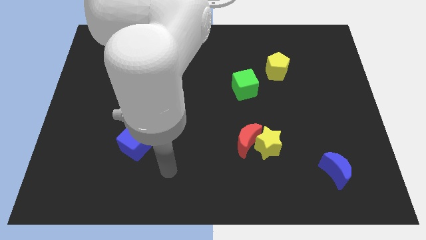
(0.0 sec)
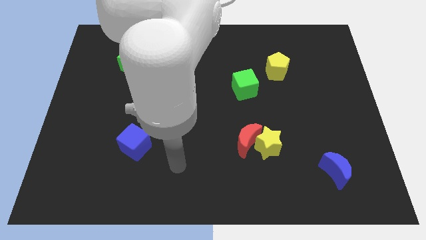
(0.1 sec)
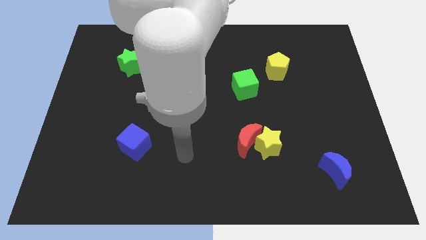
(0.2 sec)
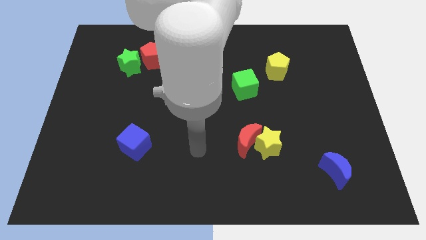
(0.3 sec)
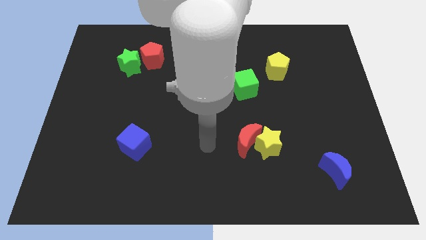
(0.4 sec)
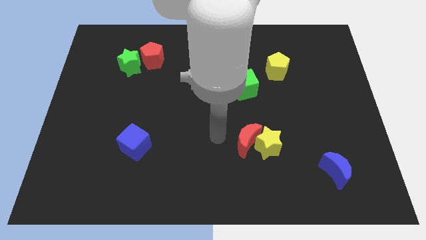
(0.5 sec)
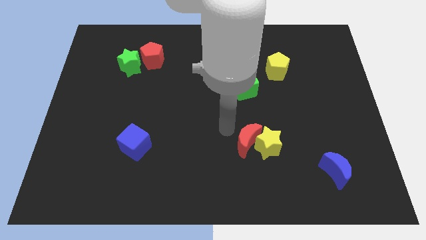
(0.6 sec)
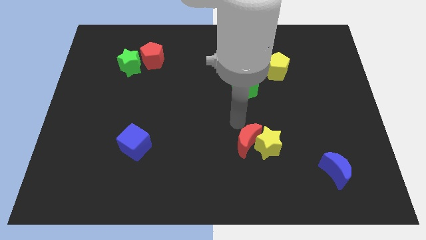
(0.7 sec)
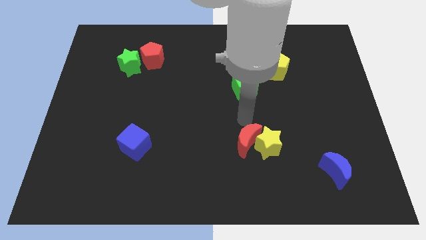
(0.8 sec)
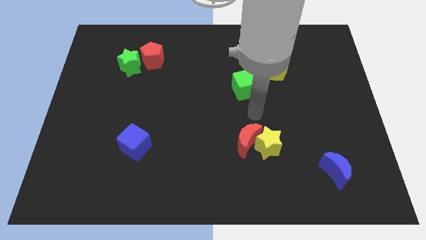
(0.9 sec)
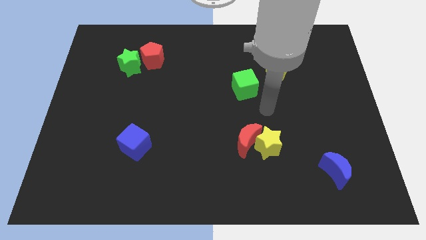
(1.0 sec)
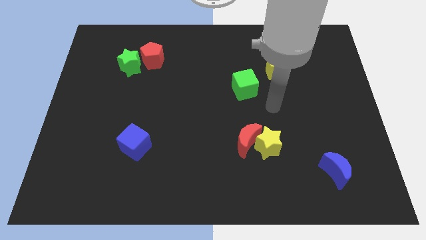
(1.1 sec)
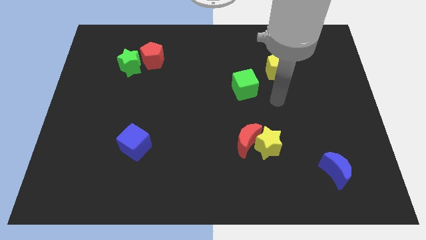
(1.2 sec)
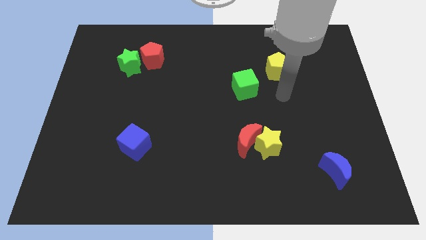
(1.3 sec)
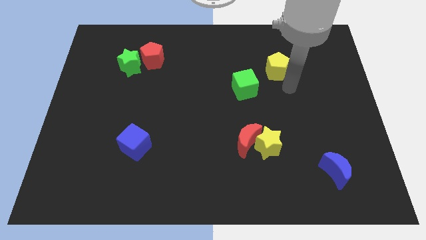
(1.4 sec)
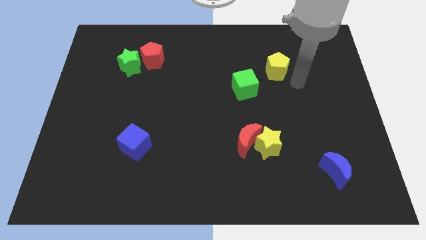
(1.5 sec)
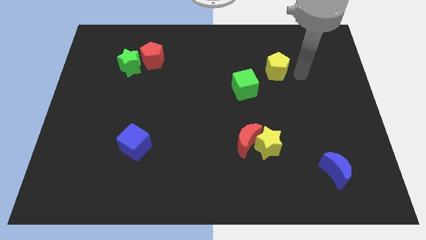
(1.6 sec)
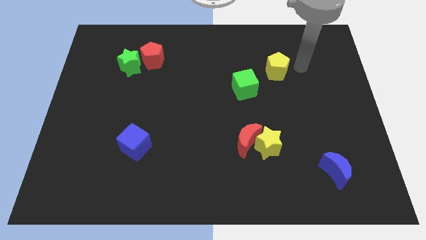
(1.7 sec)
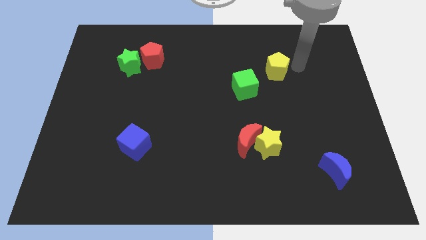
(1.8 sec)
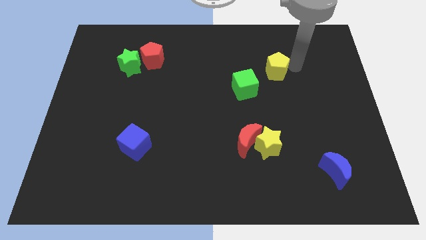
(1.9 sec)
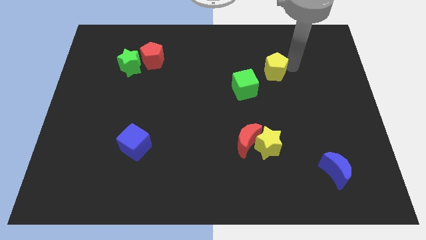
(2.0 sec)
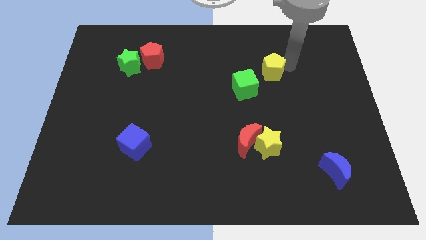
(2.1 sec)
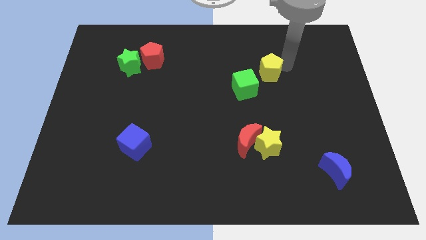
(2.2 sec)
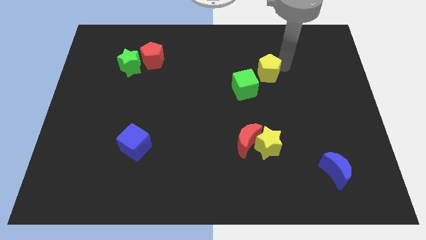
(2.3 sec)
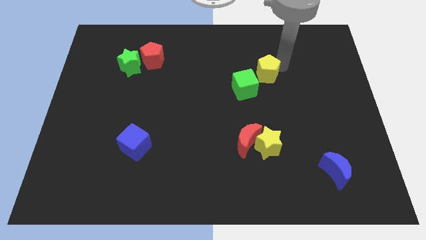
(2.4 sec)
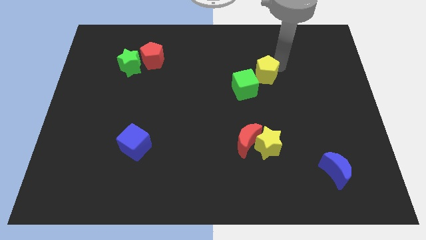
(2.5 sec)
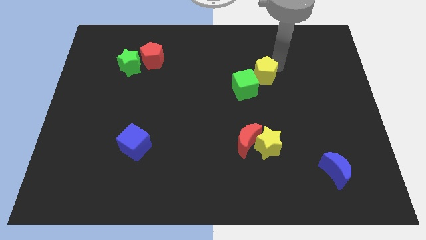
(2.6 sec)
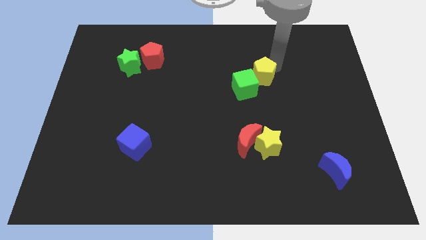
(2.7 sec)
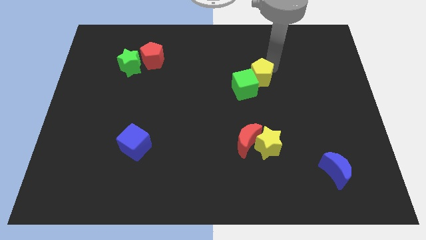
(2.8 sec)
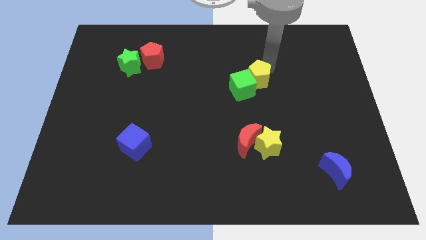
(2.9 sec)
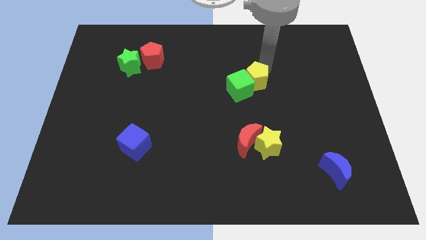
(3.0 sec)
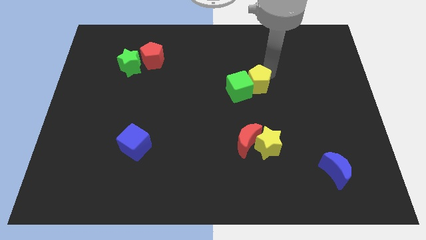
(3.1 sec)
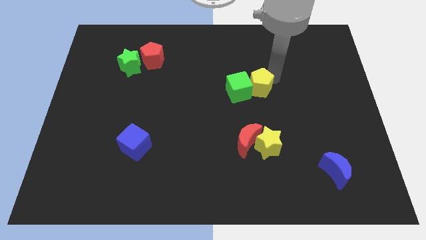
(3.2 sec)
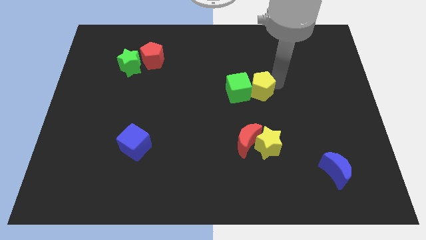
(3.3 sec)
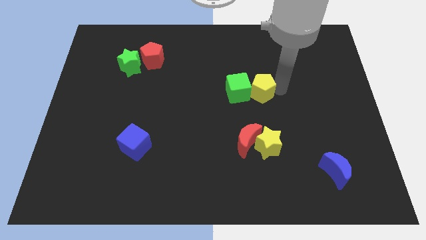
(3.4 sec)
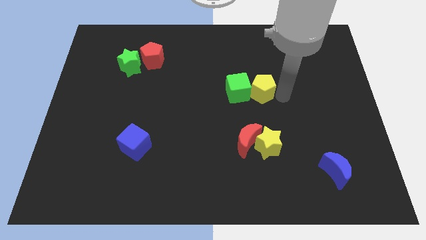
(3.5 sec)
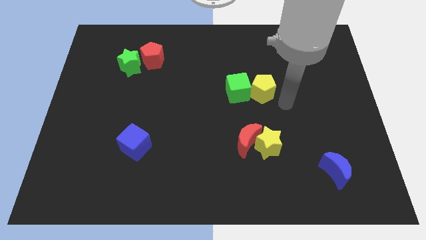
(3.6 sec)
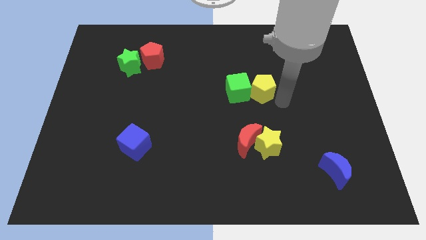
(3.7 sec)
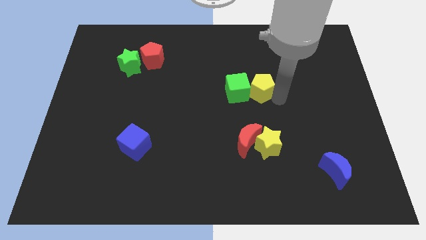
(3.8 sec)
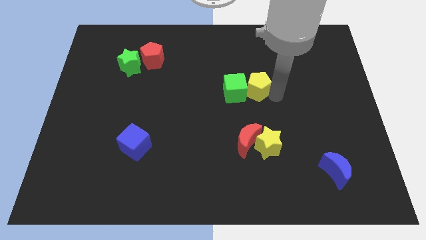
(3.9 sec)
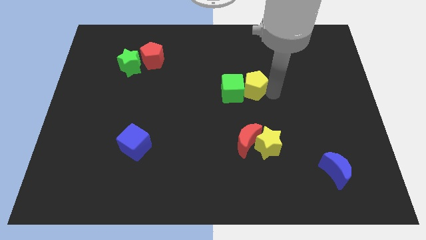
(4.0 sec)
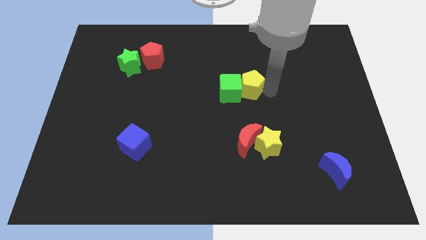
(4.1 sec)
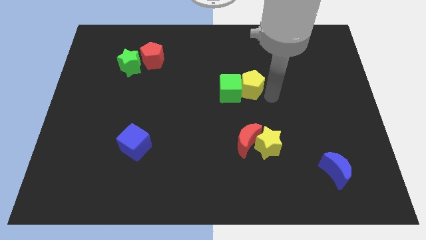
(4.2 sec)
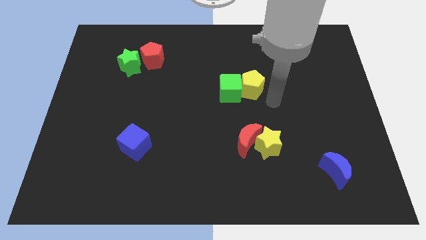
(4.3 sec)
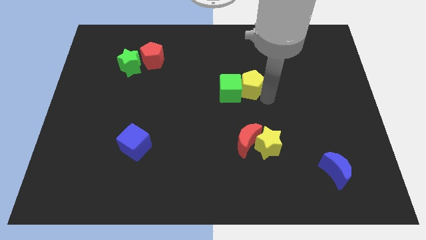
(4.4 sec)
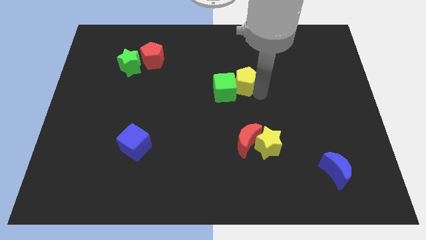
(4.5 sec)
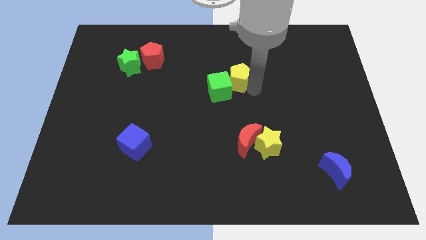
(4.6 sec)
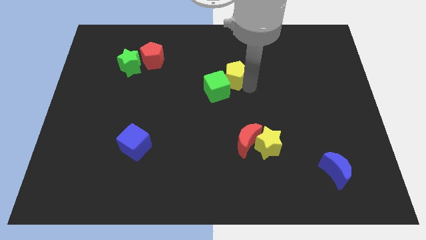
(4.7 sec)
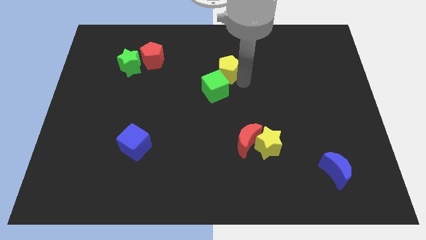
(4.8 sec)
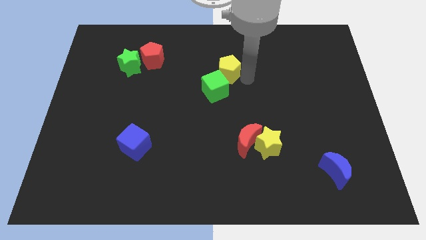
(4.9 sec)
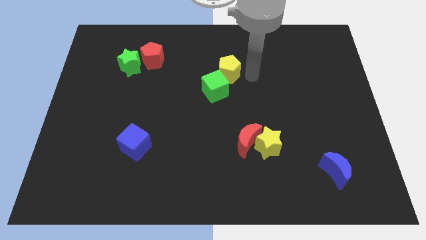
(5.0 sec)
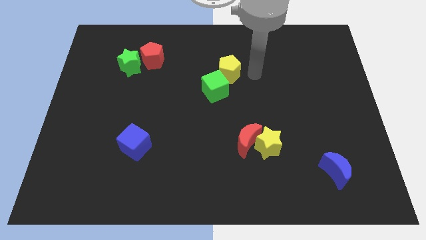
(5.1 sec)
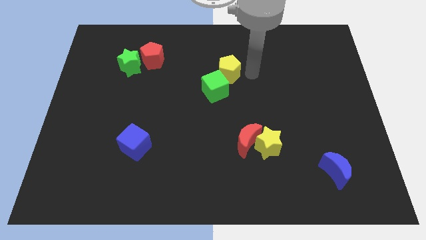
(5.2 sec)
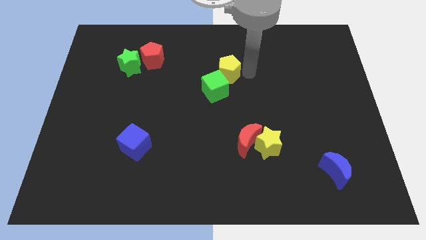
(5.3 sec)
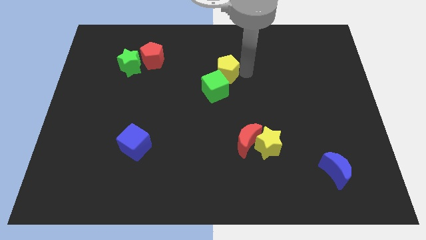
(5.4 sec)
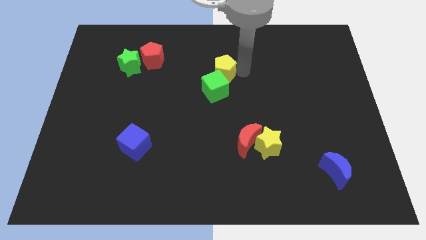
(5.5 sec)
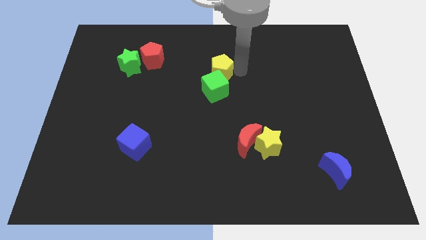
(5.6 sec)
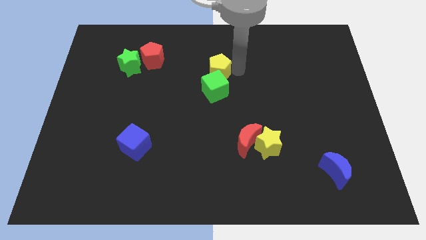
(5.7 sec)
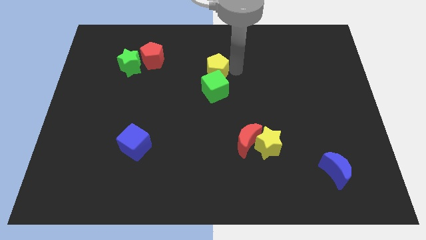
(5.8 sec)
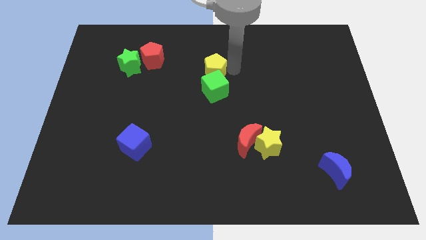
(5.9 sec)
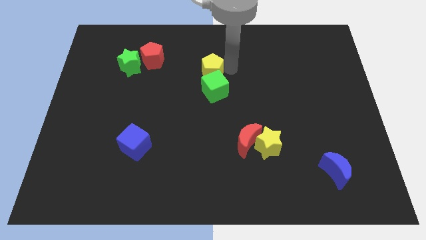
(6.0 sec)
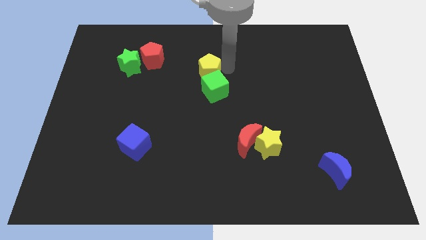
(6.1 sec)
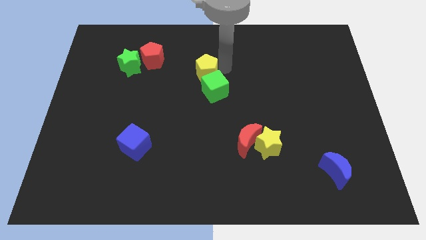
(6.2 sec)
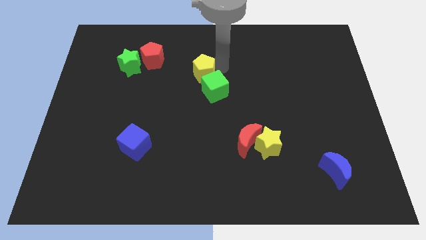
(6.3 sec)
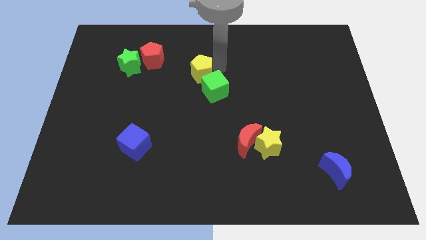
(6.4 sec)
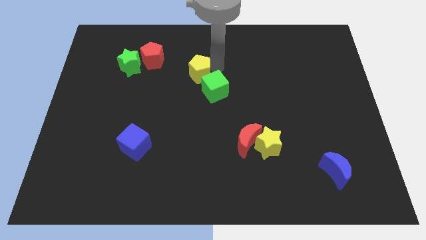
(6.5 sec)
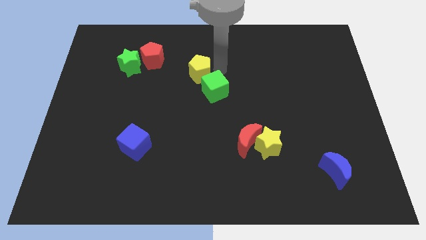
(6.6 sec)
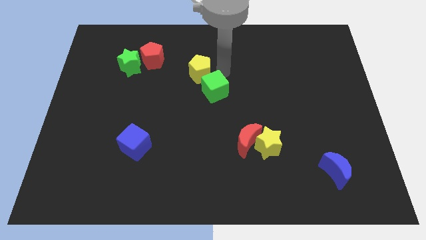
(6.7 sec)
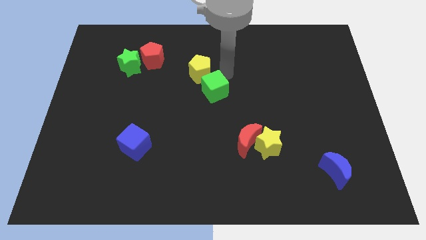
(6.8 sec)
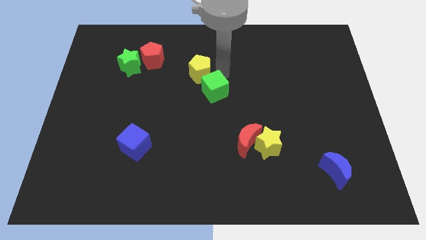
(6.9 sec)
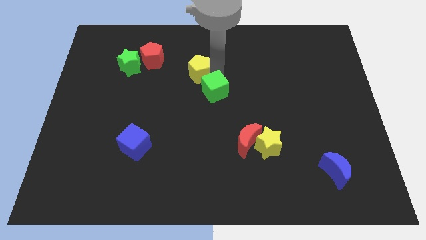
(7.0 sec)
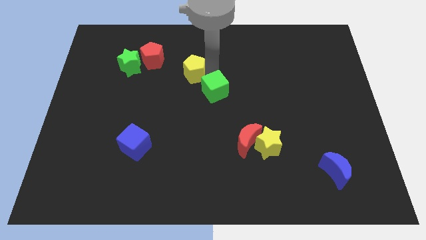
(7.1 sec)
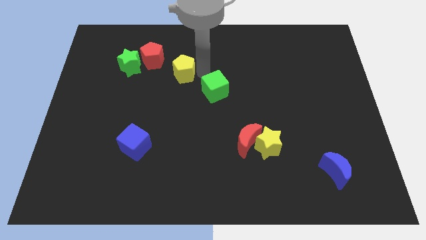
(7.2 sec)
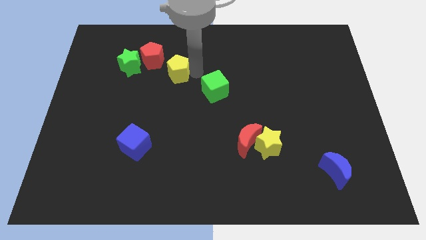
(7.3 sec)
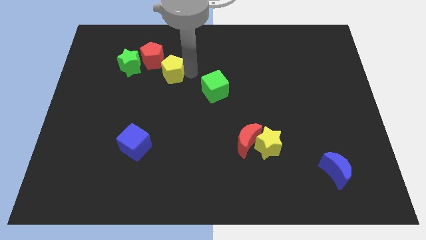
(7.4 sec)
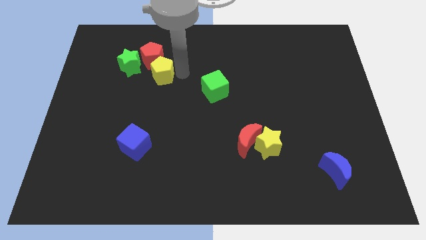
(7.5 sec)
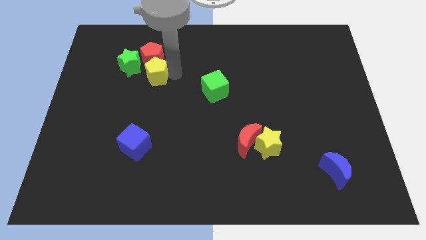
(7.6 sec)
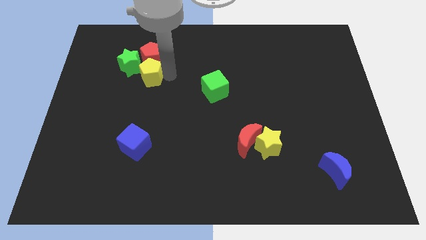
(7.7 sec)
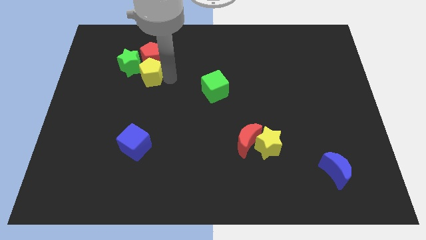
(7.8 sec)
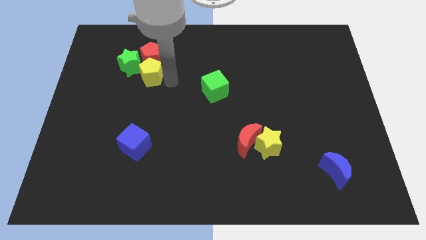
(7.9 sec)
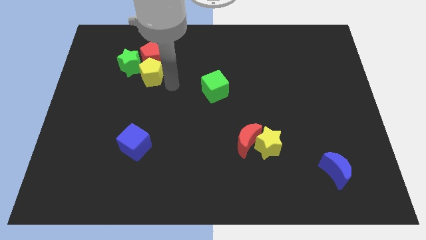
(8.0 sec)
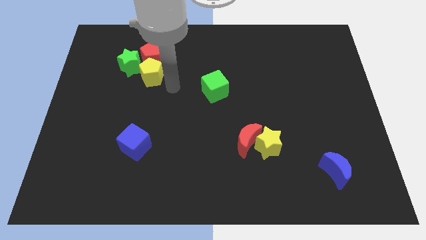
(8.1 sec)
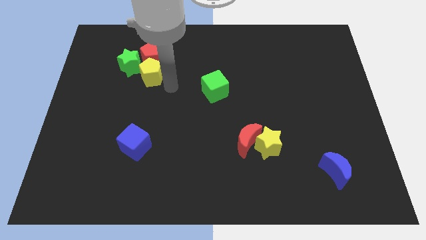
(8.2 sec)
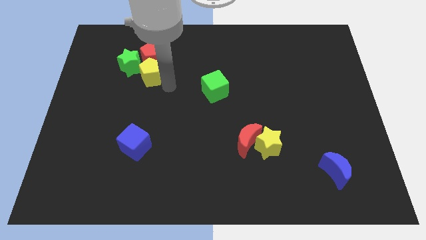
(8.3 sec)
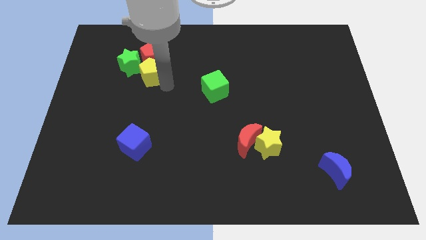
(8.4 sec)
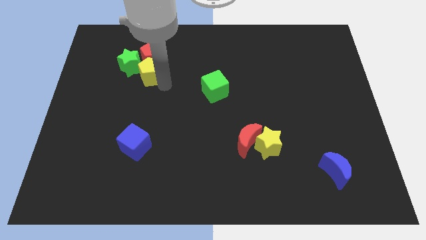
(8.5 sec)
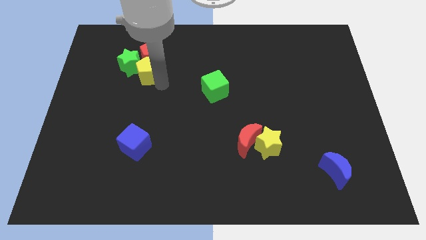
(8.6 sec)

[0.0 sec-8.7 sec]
put the yellow pentagon to the green star
